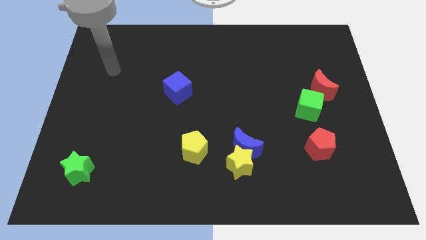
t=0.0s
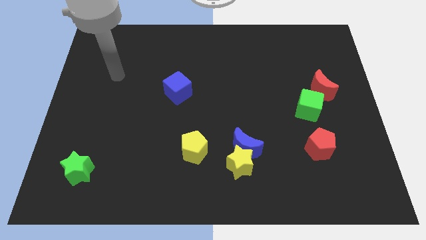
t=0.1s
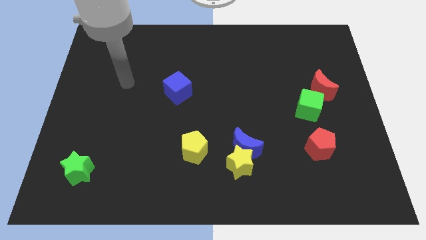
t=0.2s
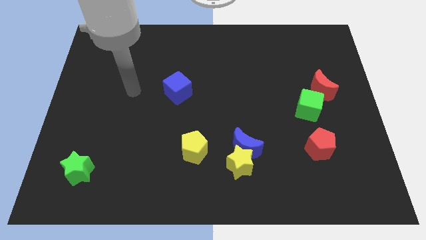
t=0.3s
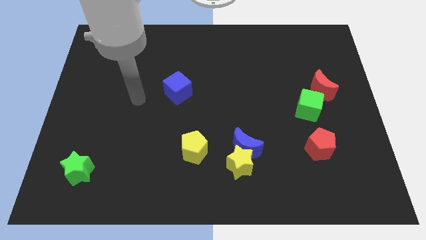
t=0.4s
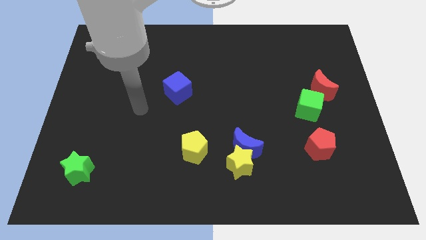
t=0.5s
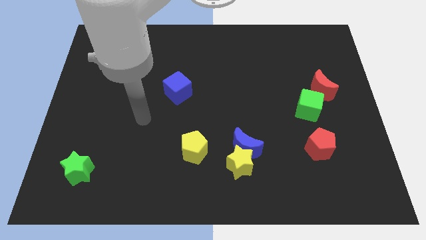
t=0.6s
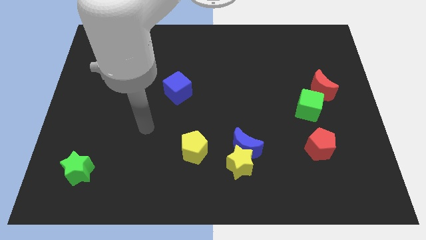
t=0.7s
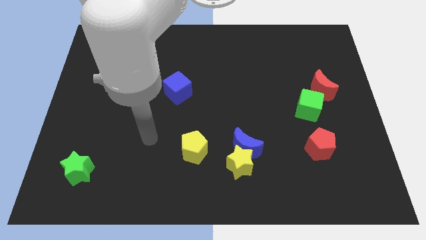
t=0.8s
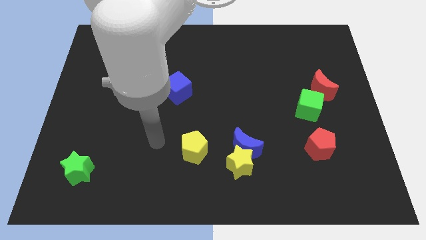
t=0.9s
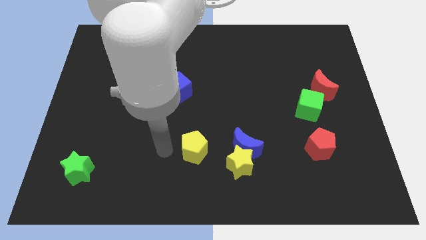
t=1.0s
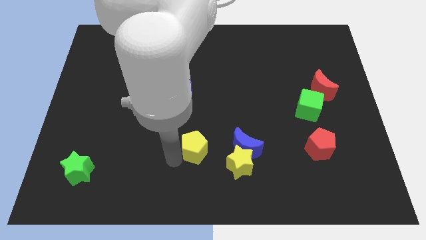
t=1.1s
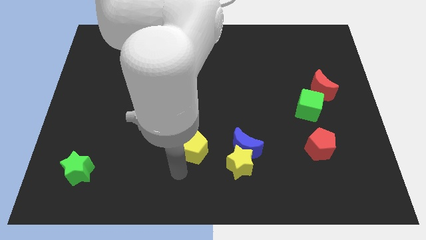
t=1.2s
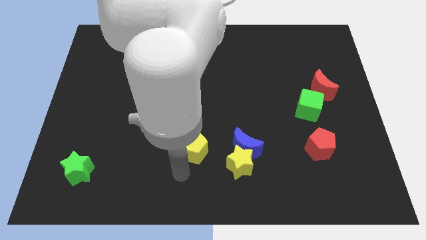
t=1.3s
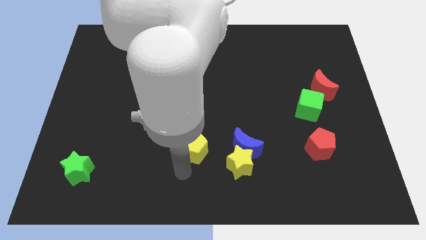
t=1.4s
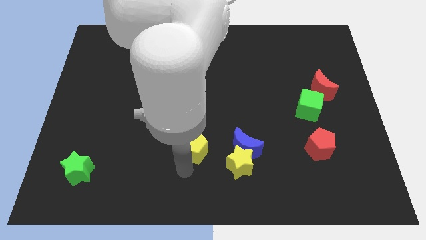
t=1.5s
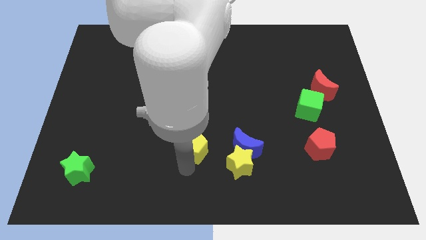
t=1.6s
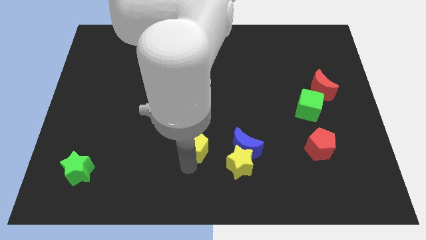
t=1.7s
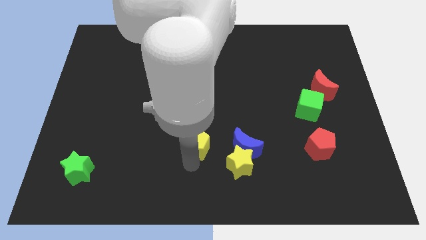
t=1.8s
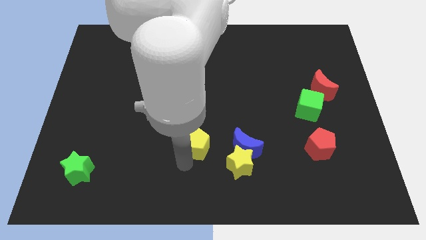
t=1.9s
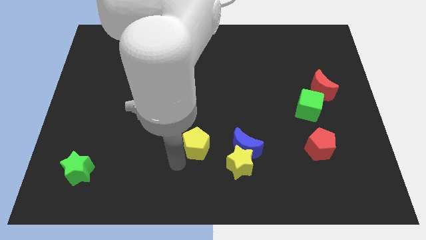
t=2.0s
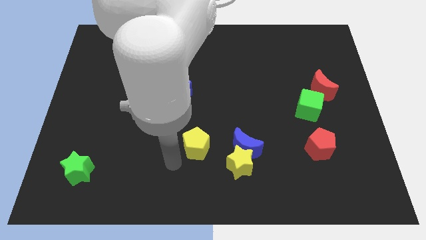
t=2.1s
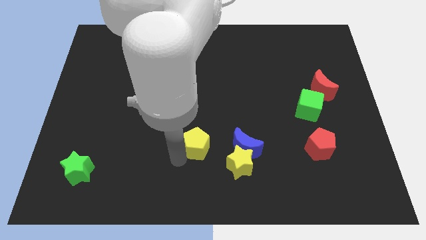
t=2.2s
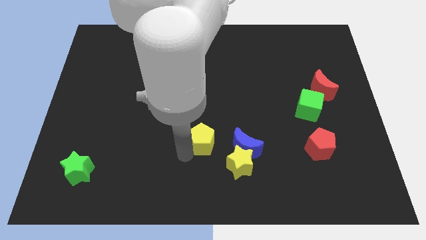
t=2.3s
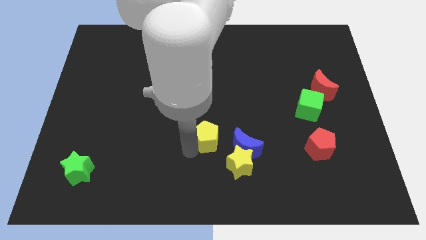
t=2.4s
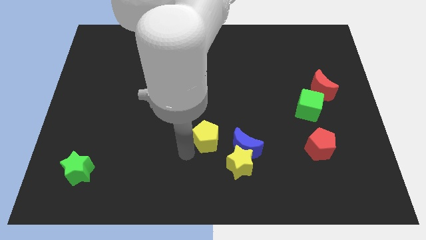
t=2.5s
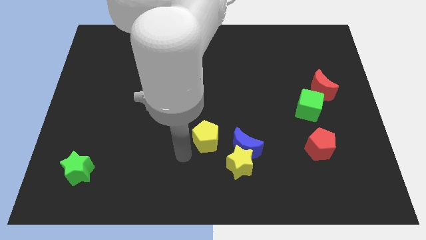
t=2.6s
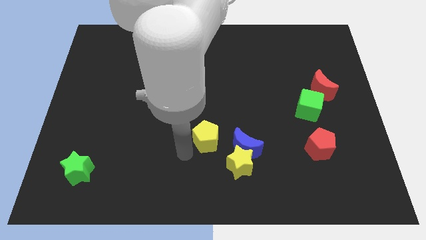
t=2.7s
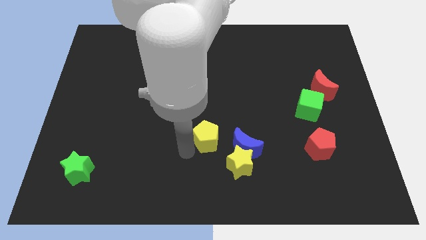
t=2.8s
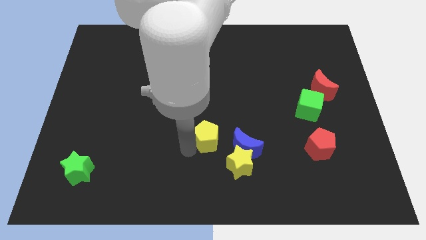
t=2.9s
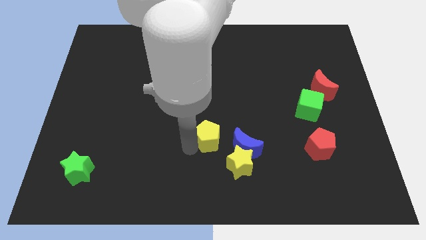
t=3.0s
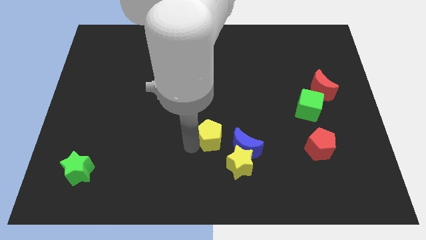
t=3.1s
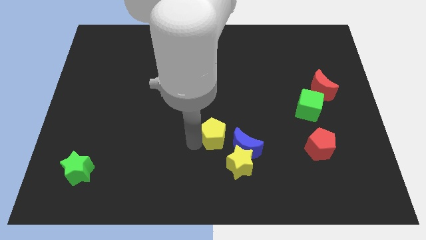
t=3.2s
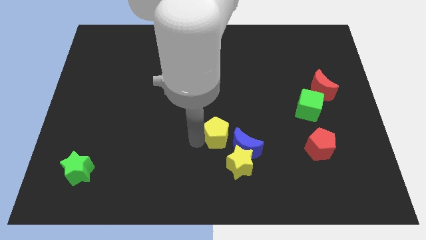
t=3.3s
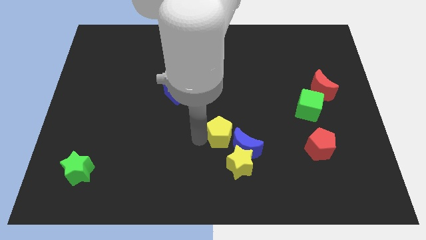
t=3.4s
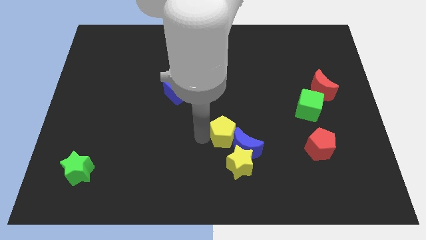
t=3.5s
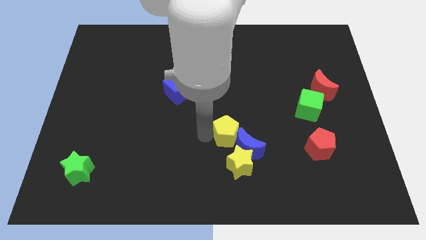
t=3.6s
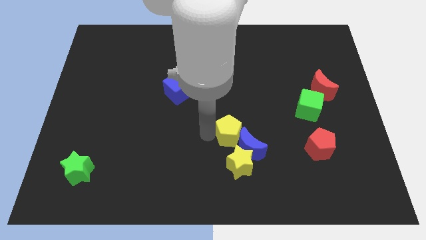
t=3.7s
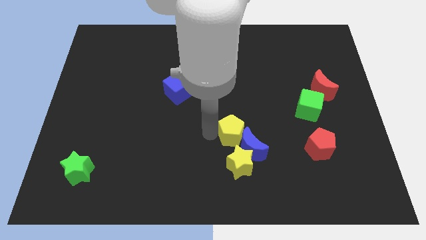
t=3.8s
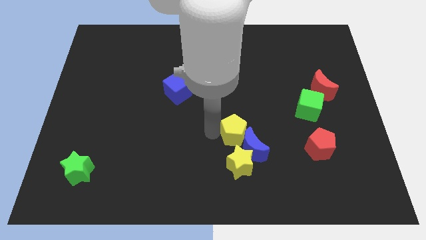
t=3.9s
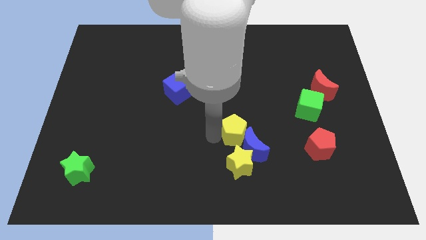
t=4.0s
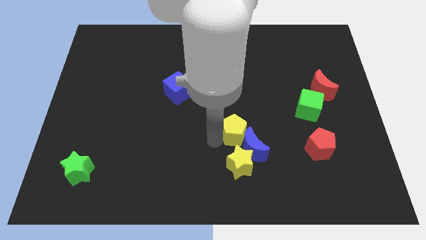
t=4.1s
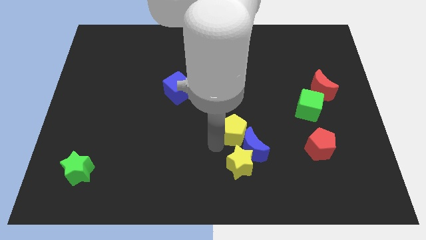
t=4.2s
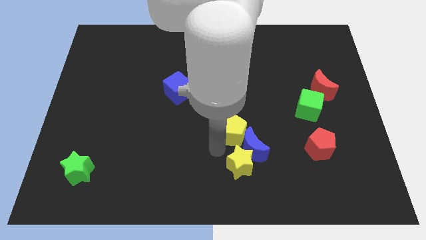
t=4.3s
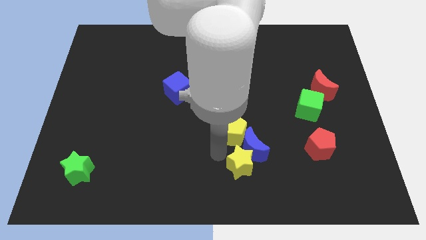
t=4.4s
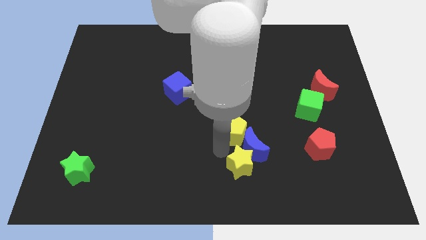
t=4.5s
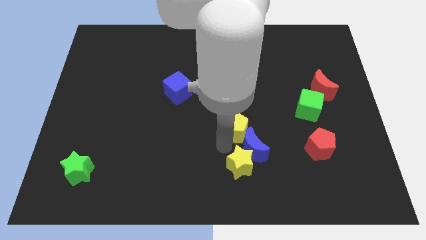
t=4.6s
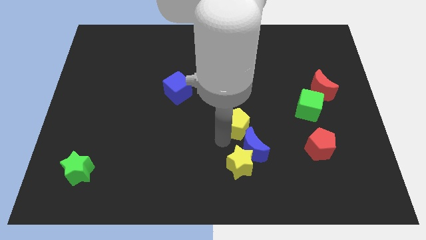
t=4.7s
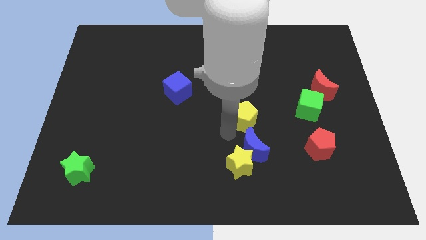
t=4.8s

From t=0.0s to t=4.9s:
move the yellow pentagon to the left of the green cube

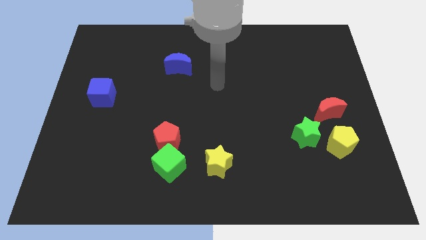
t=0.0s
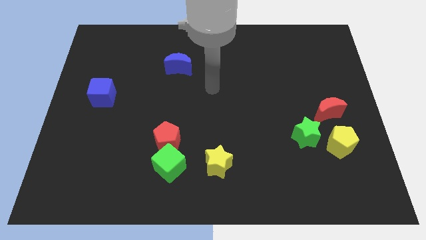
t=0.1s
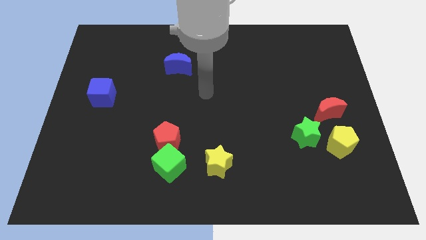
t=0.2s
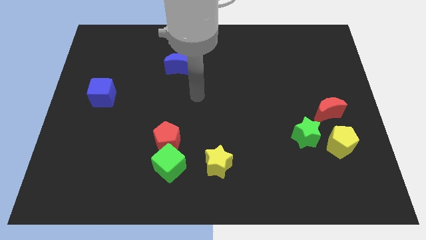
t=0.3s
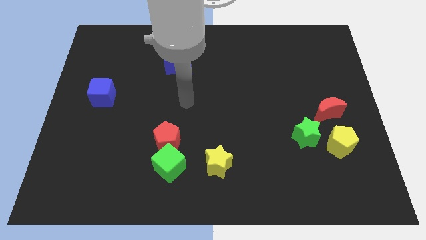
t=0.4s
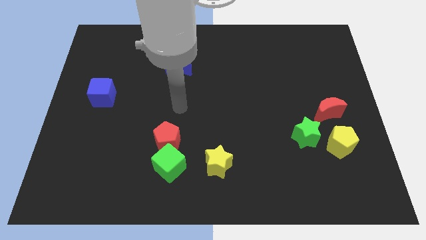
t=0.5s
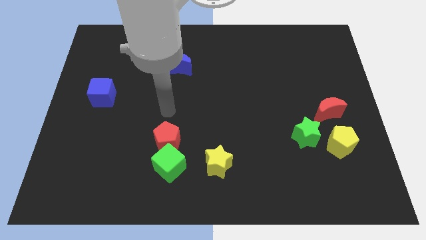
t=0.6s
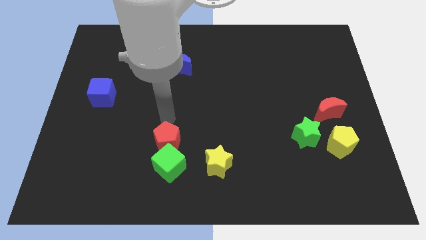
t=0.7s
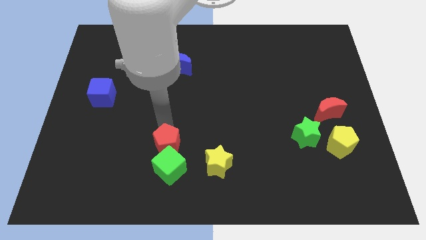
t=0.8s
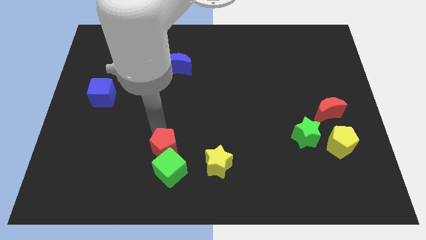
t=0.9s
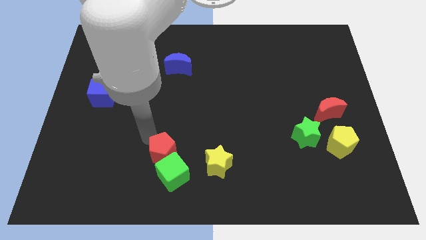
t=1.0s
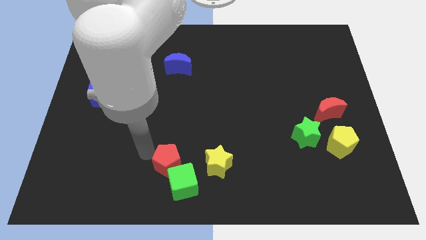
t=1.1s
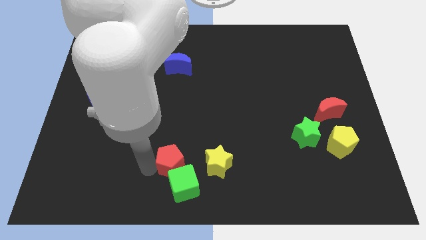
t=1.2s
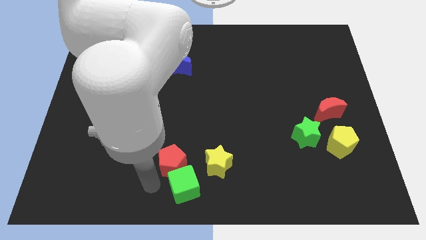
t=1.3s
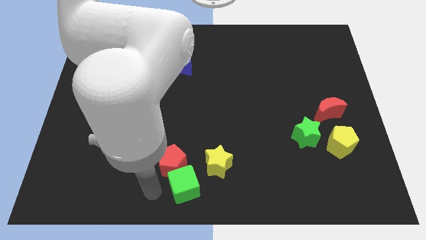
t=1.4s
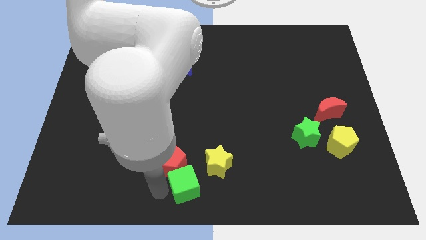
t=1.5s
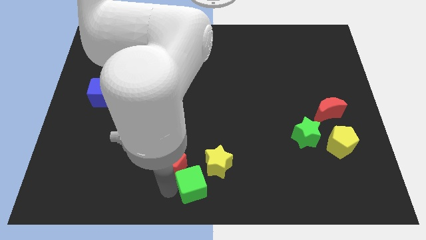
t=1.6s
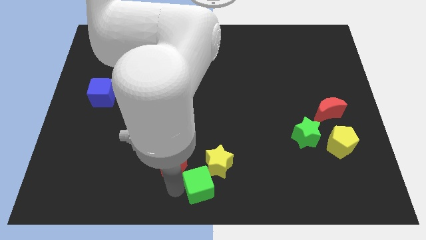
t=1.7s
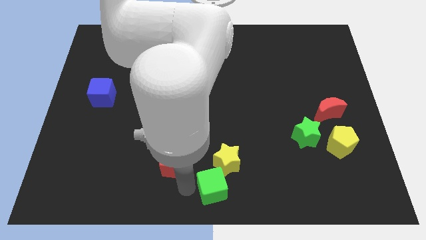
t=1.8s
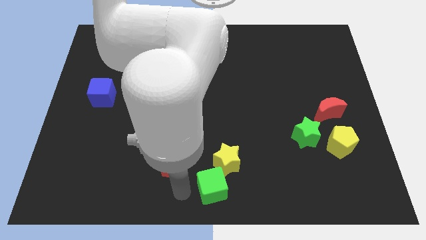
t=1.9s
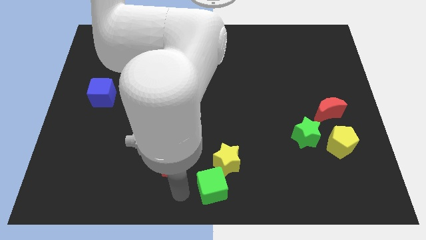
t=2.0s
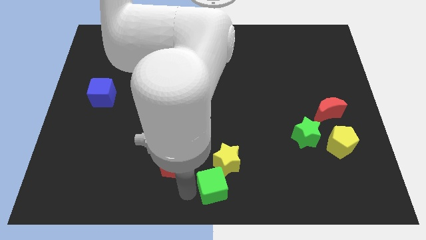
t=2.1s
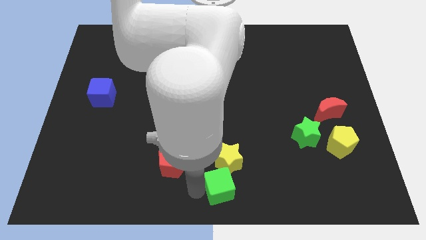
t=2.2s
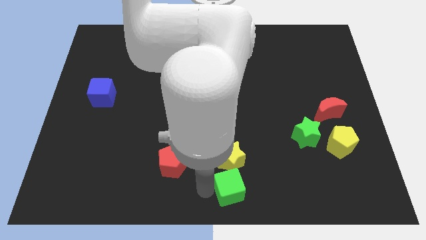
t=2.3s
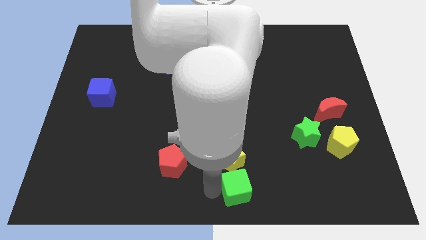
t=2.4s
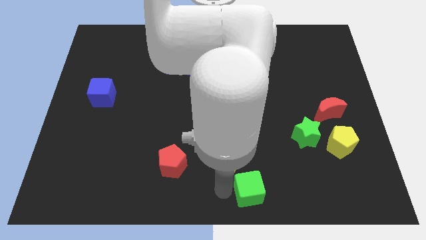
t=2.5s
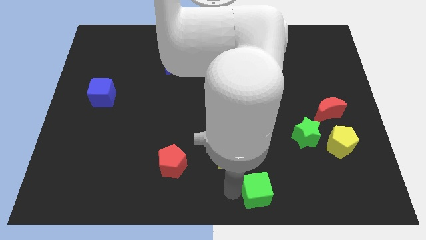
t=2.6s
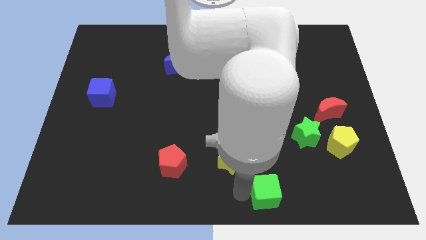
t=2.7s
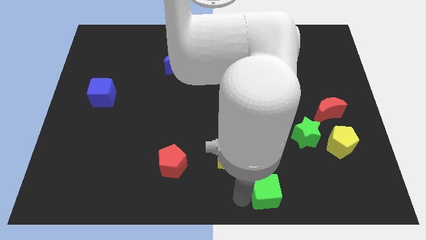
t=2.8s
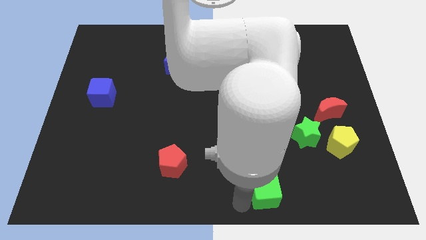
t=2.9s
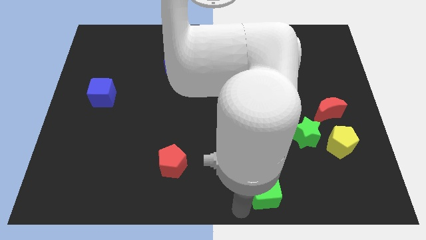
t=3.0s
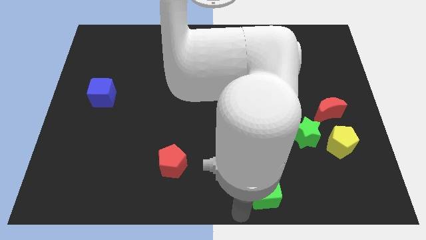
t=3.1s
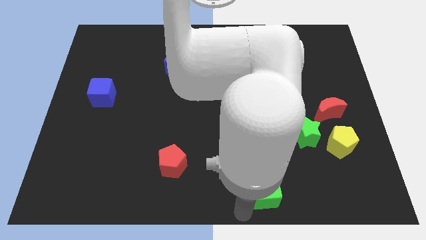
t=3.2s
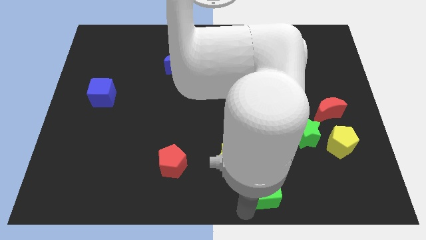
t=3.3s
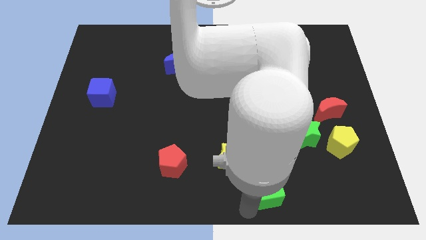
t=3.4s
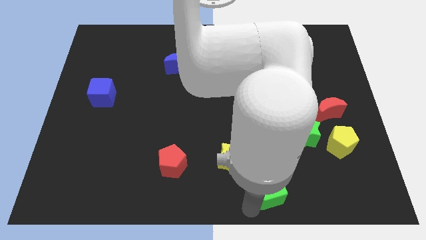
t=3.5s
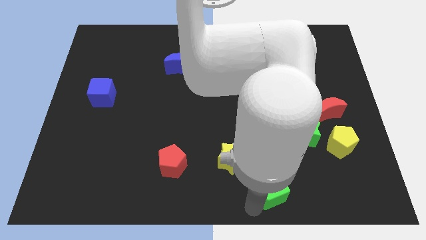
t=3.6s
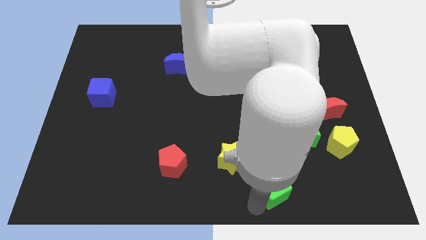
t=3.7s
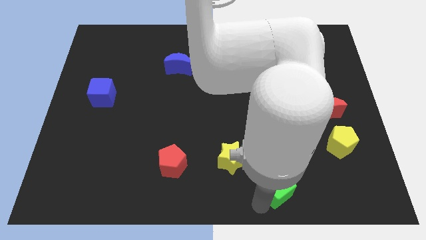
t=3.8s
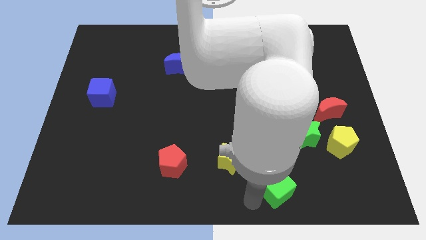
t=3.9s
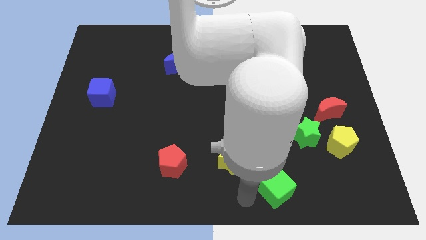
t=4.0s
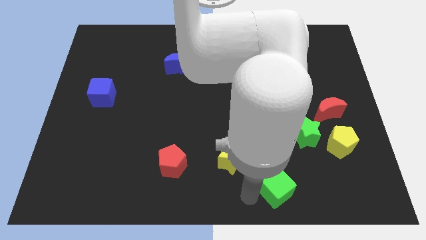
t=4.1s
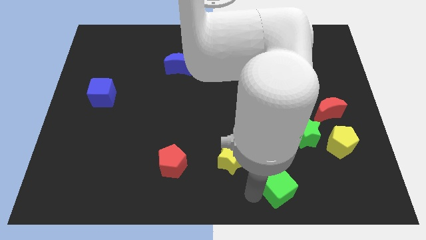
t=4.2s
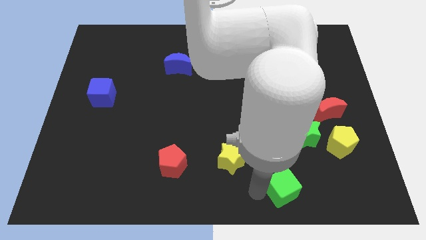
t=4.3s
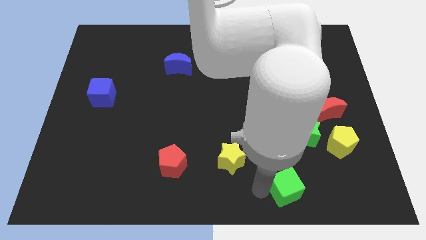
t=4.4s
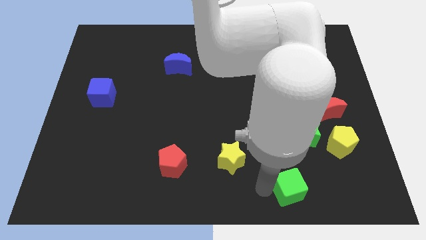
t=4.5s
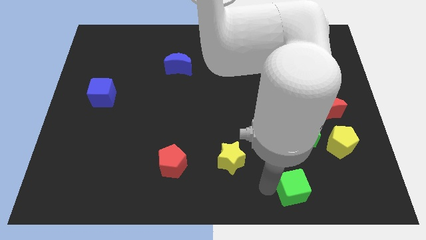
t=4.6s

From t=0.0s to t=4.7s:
push the green cube to the bottom side of the green star
